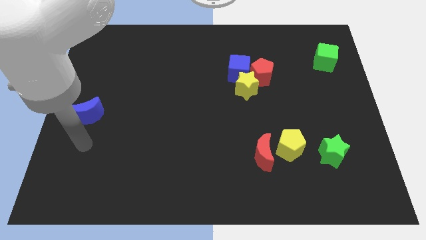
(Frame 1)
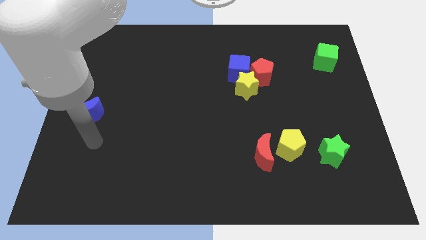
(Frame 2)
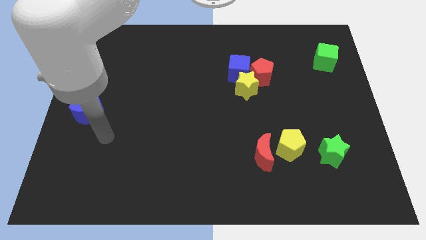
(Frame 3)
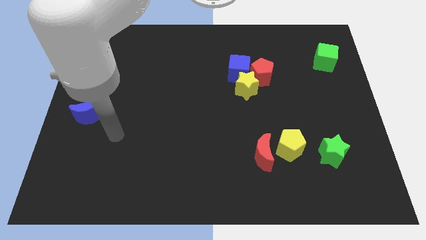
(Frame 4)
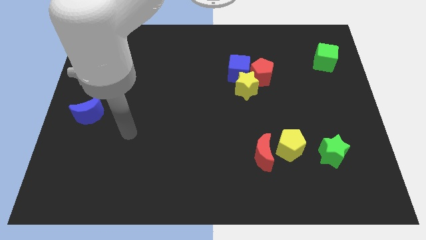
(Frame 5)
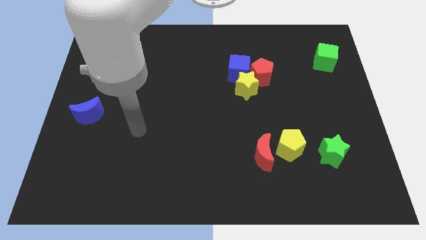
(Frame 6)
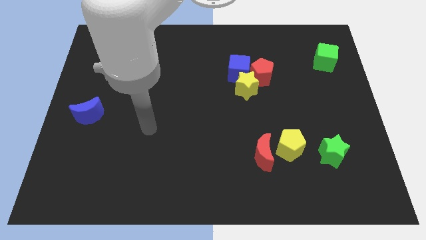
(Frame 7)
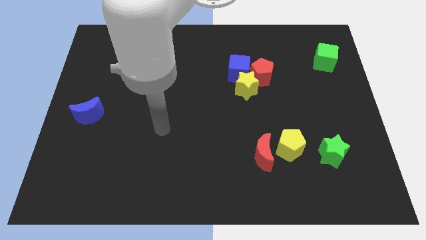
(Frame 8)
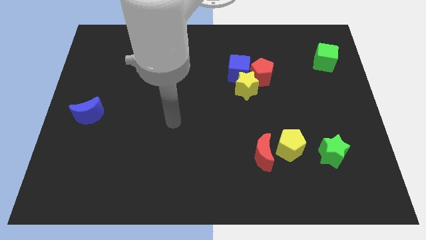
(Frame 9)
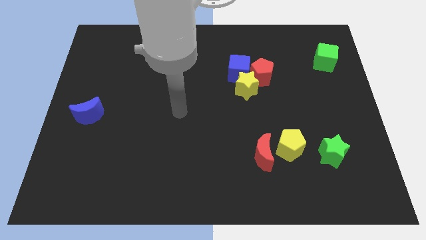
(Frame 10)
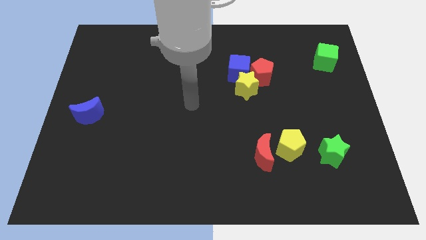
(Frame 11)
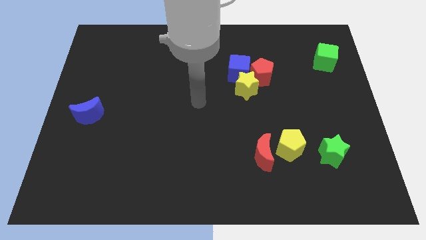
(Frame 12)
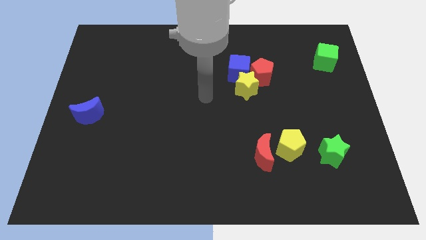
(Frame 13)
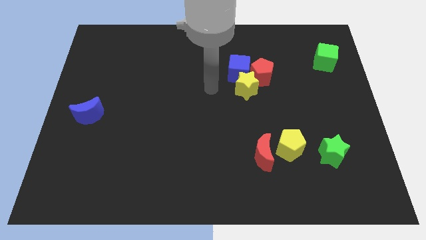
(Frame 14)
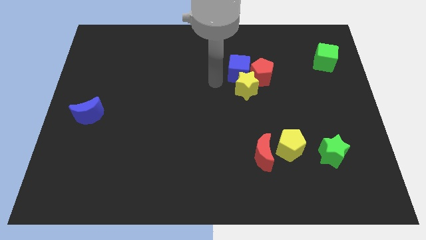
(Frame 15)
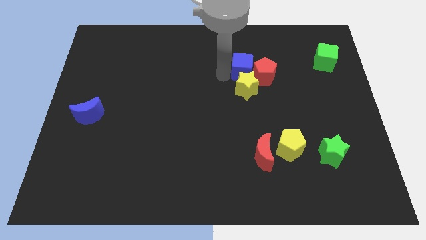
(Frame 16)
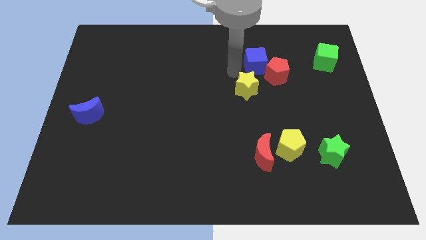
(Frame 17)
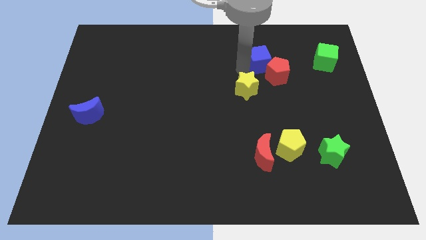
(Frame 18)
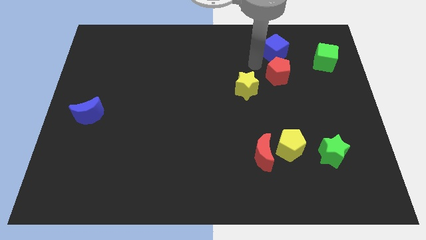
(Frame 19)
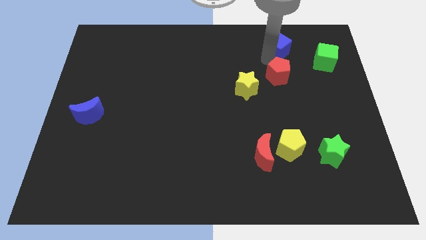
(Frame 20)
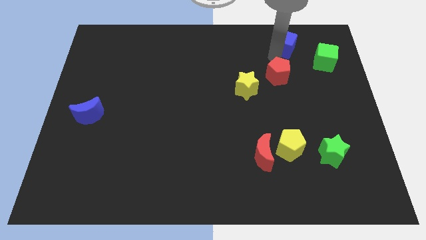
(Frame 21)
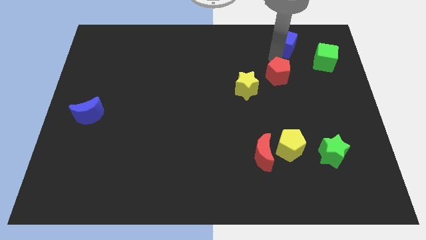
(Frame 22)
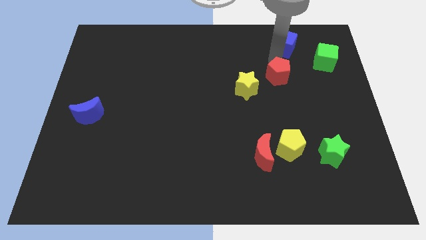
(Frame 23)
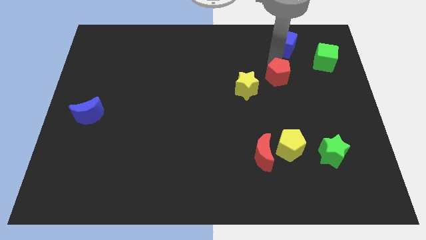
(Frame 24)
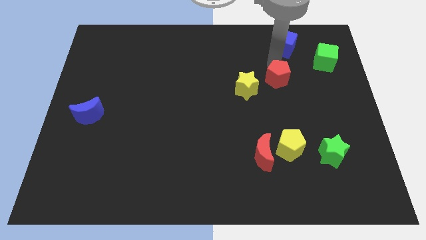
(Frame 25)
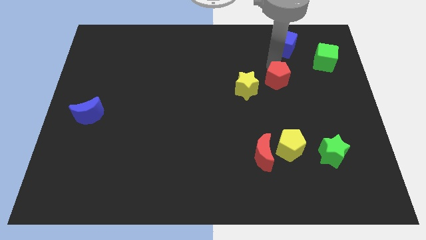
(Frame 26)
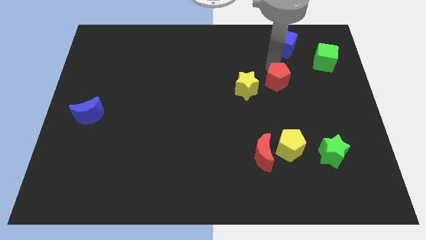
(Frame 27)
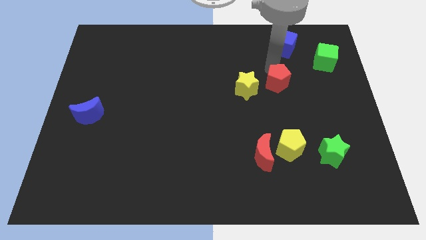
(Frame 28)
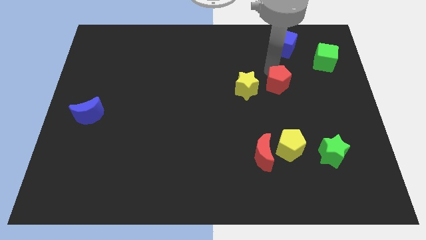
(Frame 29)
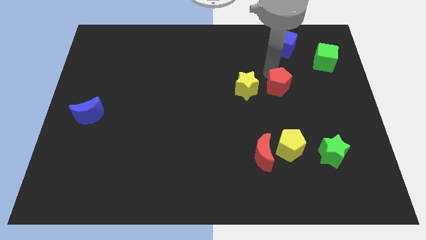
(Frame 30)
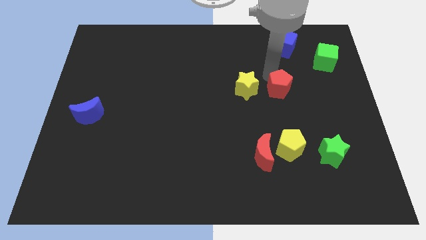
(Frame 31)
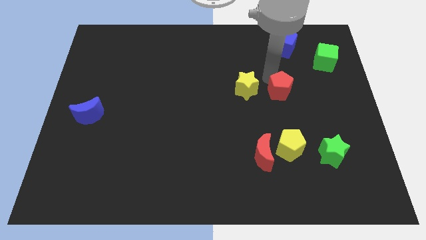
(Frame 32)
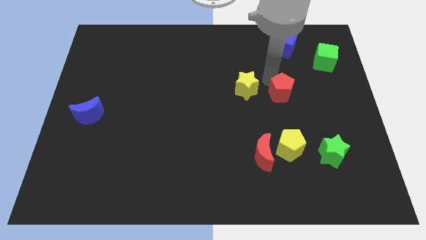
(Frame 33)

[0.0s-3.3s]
push the red pentagon downwards and right diagonally a bit

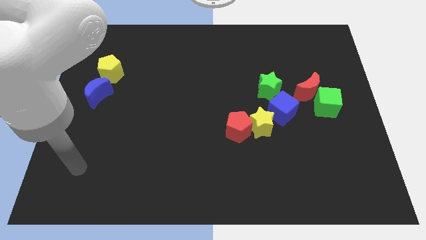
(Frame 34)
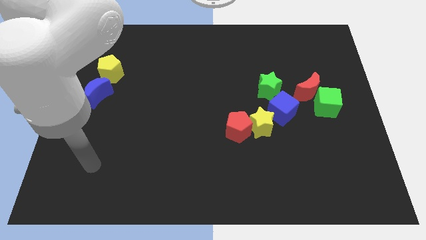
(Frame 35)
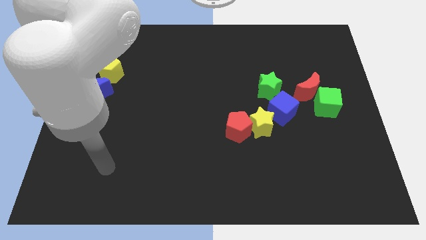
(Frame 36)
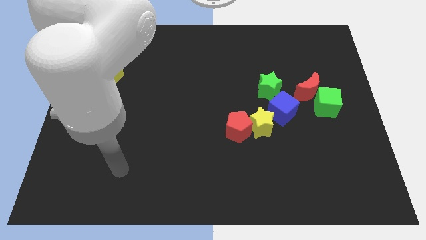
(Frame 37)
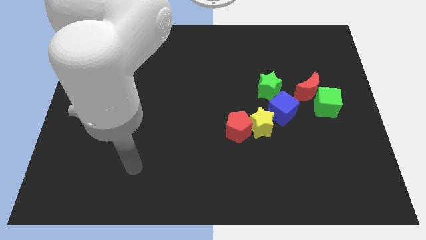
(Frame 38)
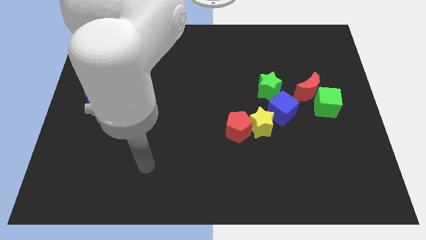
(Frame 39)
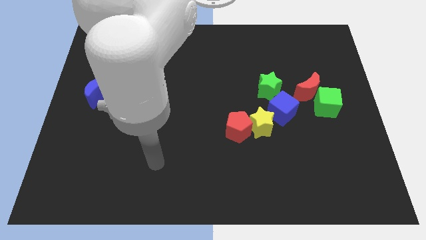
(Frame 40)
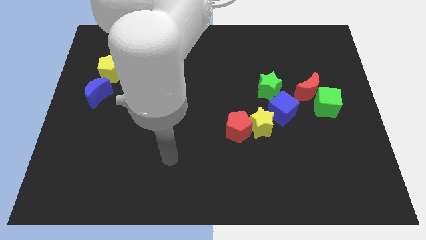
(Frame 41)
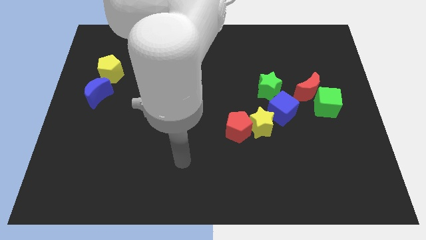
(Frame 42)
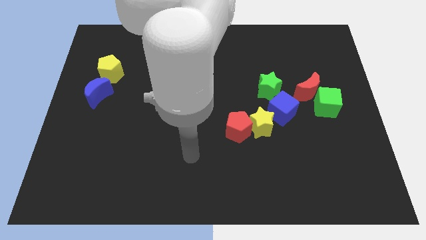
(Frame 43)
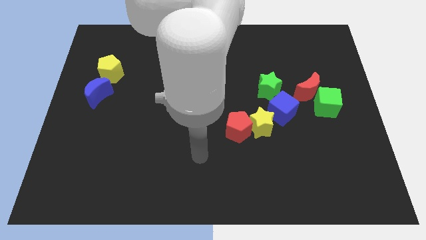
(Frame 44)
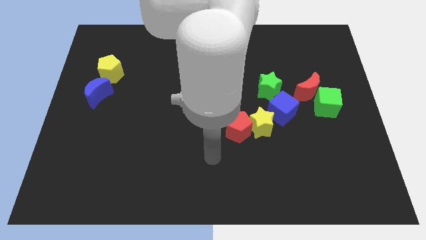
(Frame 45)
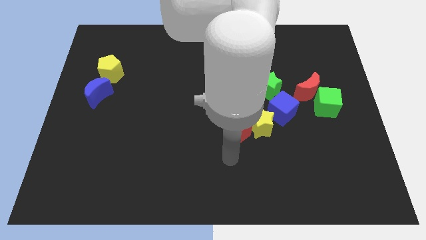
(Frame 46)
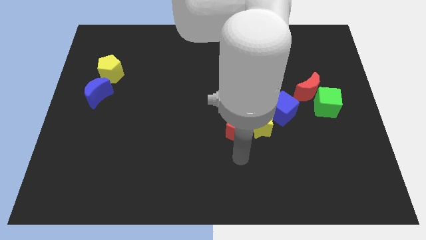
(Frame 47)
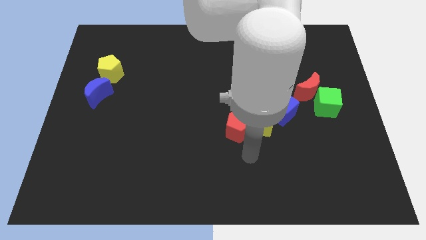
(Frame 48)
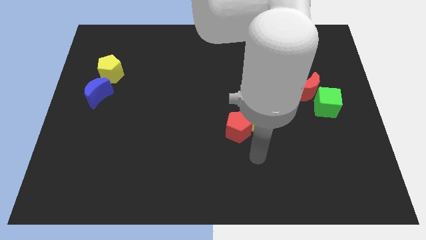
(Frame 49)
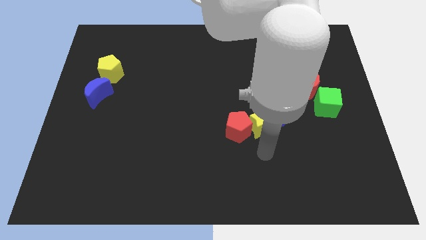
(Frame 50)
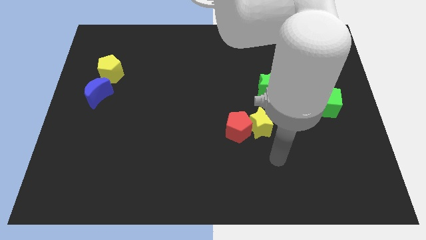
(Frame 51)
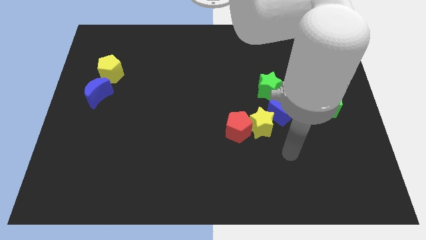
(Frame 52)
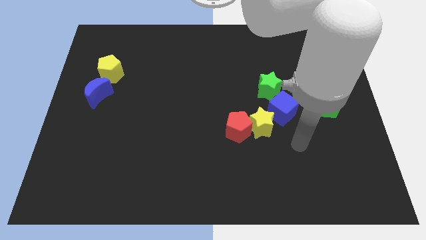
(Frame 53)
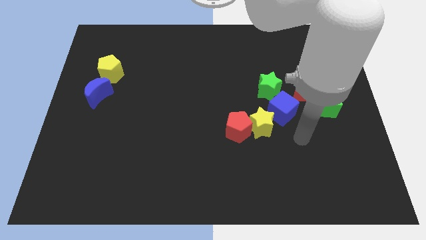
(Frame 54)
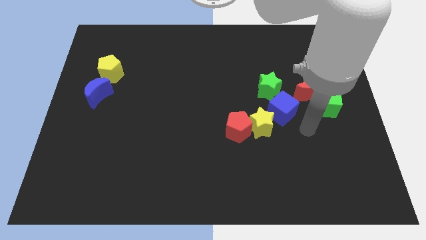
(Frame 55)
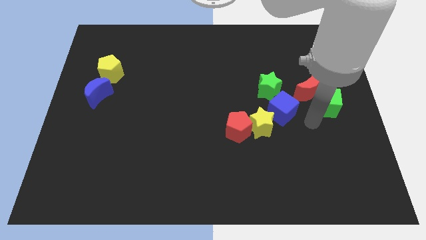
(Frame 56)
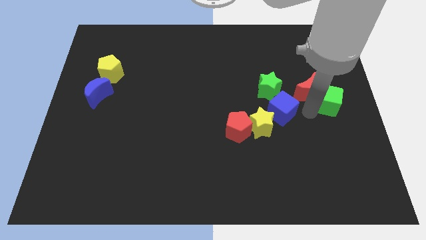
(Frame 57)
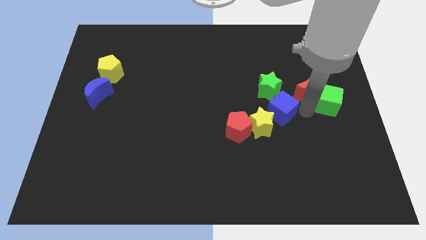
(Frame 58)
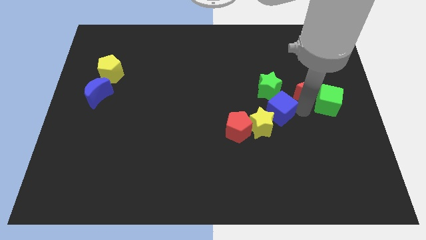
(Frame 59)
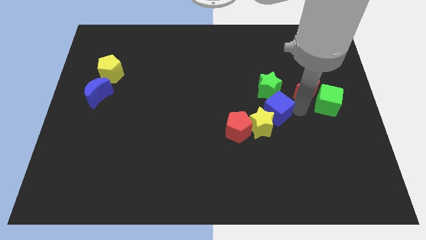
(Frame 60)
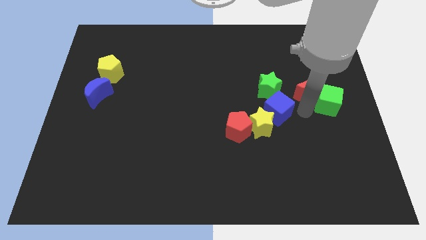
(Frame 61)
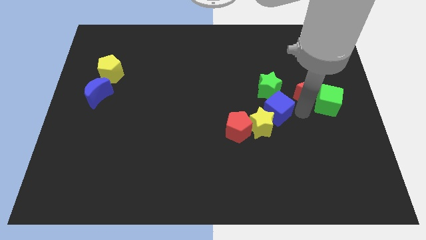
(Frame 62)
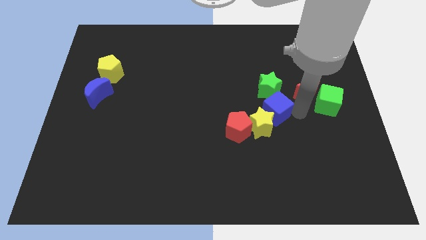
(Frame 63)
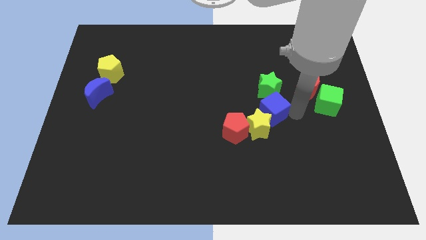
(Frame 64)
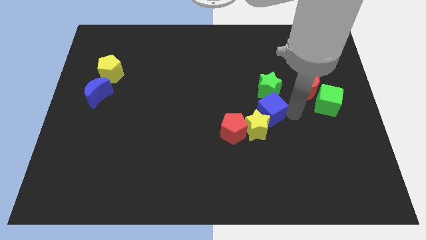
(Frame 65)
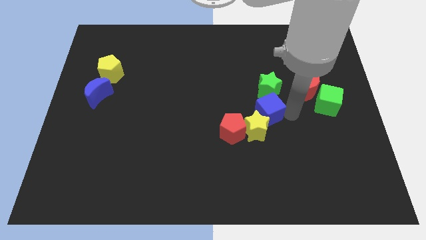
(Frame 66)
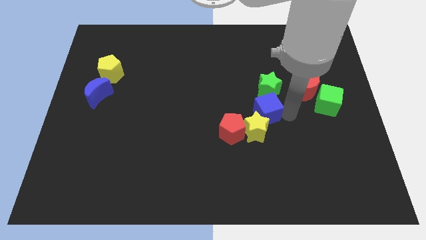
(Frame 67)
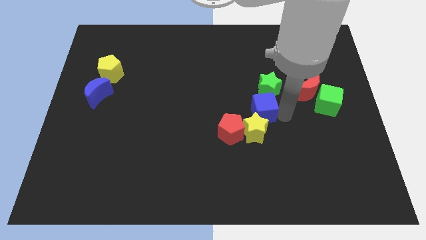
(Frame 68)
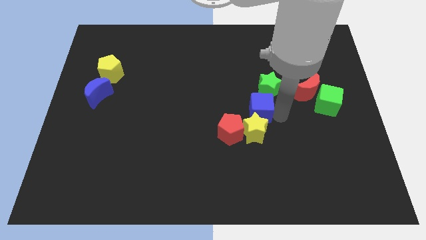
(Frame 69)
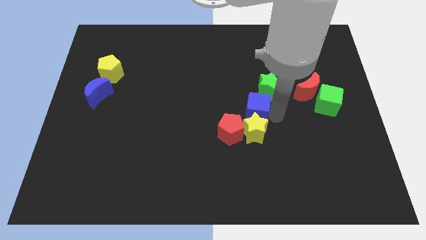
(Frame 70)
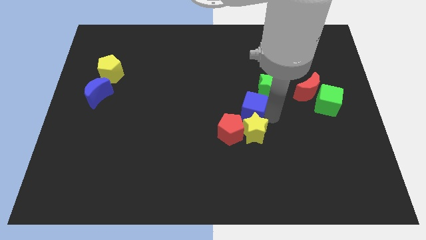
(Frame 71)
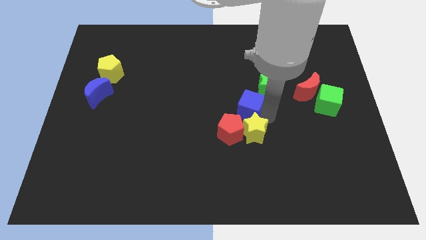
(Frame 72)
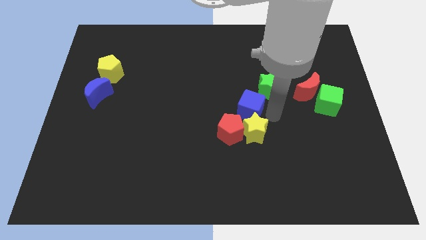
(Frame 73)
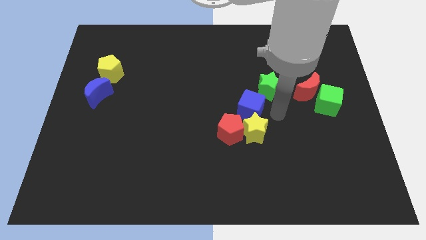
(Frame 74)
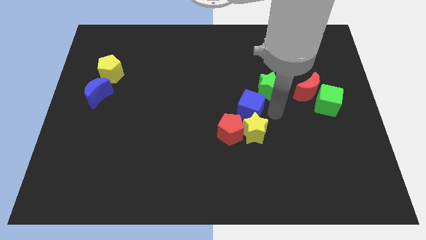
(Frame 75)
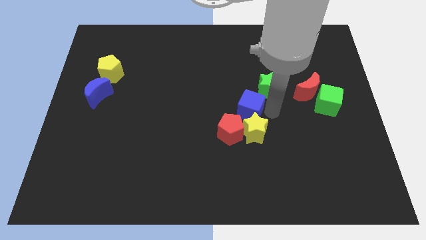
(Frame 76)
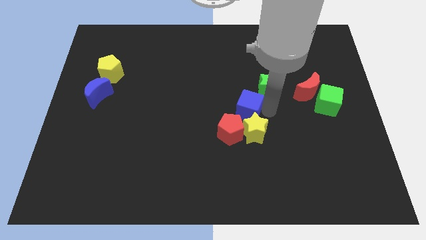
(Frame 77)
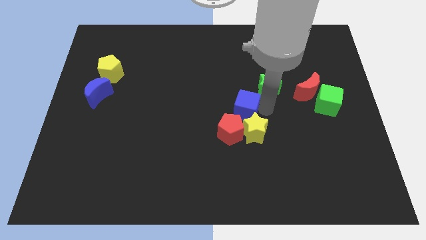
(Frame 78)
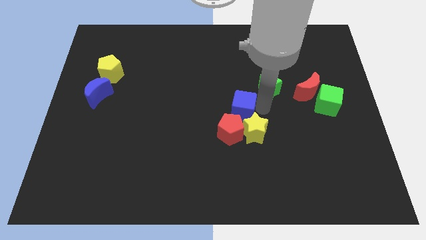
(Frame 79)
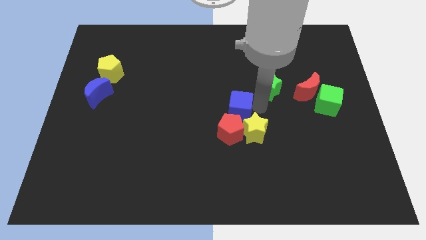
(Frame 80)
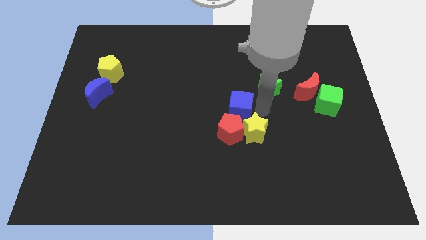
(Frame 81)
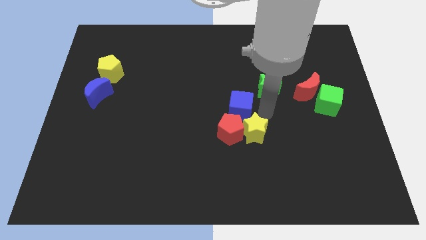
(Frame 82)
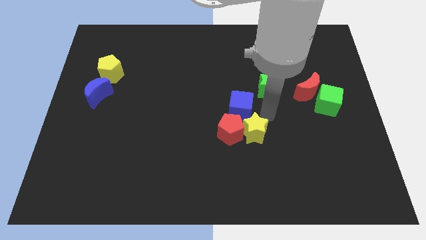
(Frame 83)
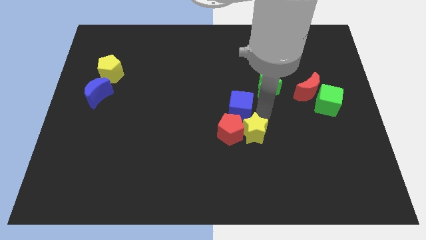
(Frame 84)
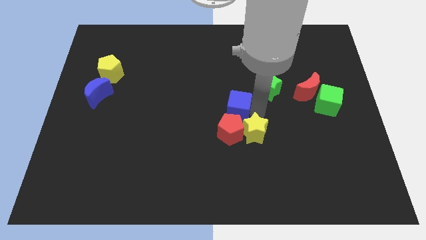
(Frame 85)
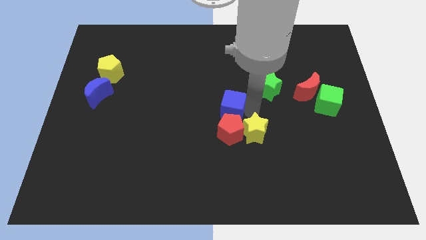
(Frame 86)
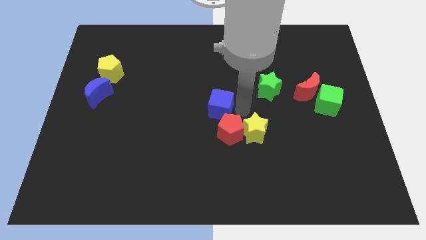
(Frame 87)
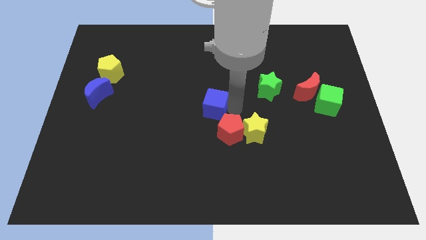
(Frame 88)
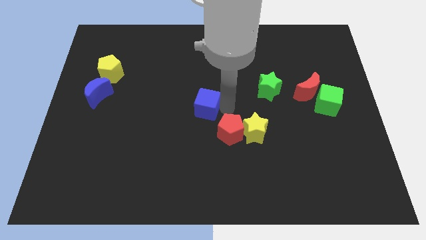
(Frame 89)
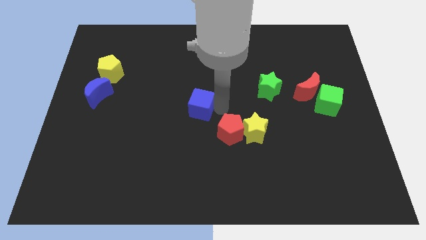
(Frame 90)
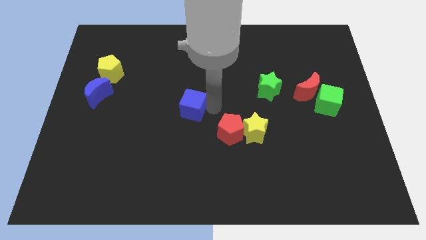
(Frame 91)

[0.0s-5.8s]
slide the blue cube to the left
